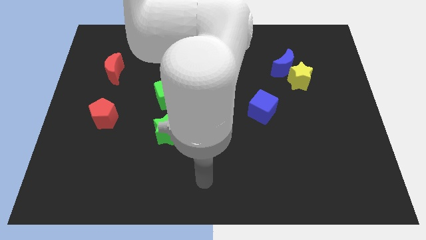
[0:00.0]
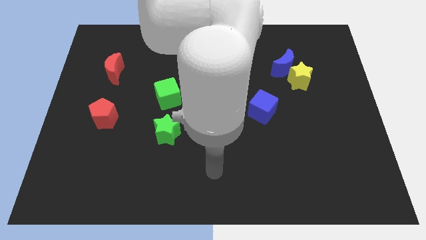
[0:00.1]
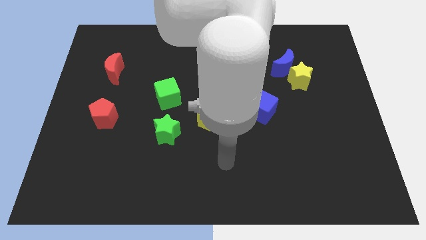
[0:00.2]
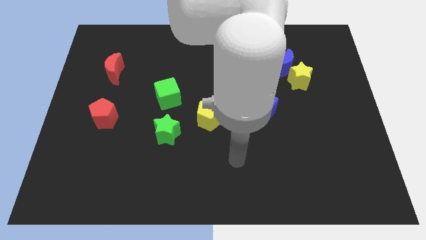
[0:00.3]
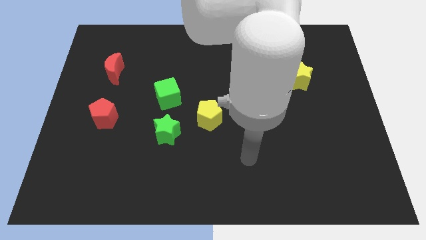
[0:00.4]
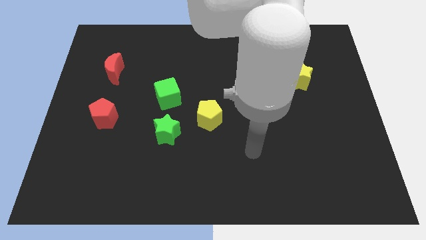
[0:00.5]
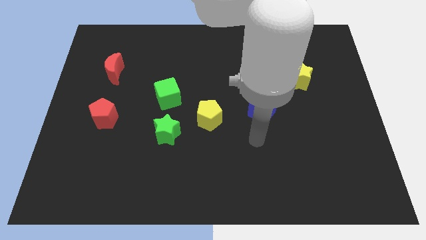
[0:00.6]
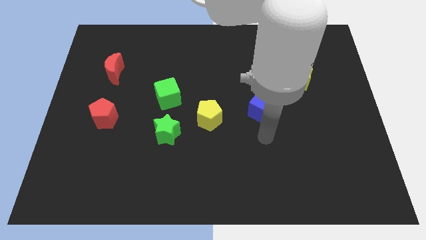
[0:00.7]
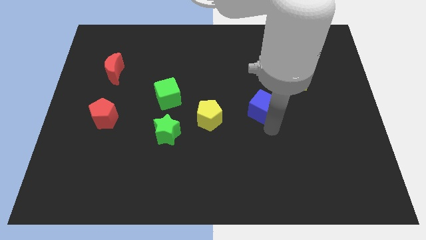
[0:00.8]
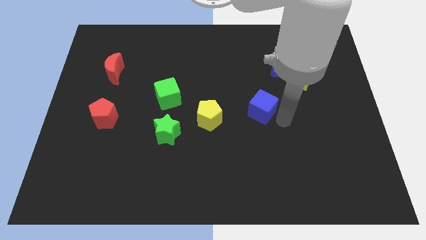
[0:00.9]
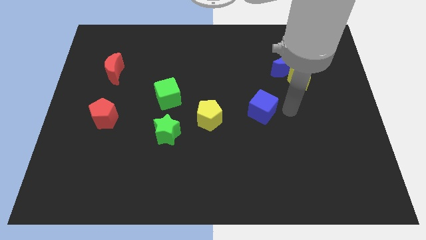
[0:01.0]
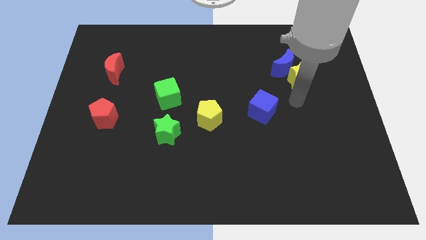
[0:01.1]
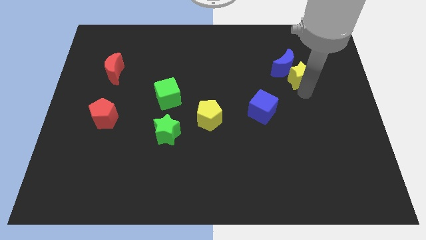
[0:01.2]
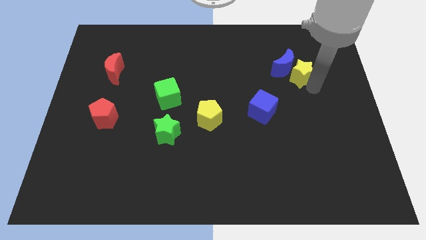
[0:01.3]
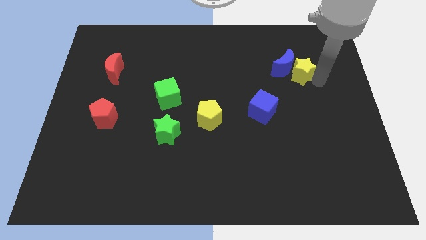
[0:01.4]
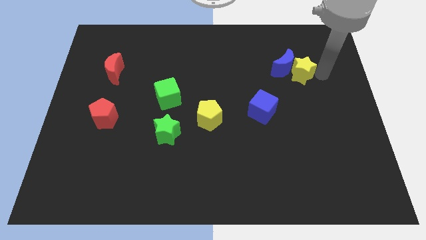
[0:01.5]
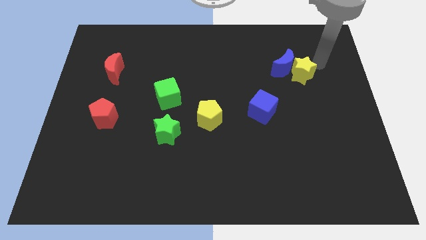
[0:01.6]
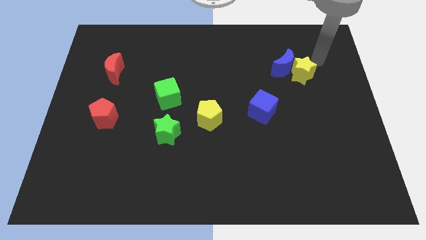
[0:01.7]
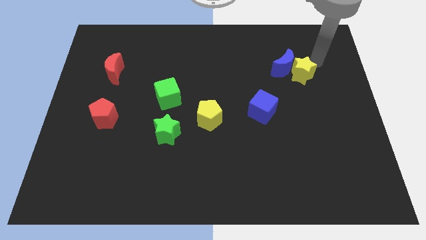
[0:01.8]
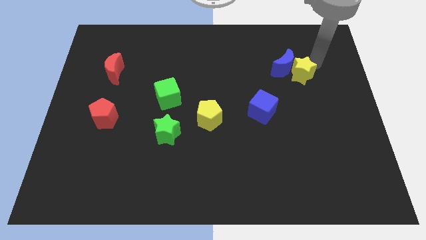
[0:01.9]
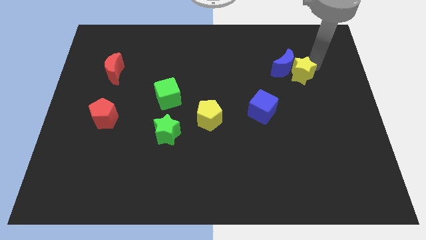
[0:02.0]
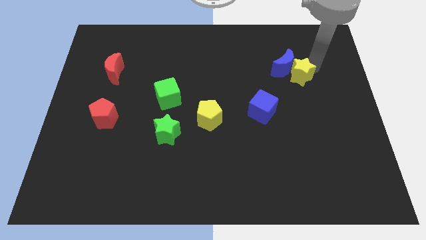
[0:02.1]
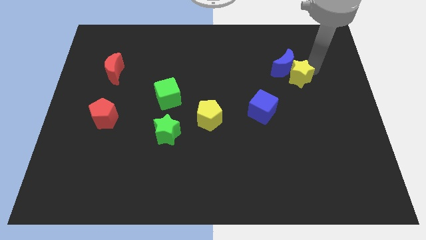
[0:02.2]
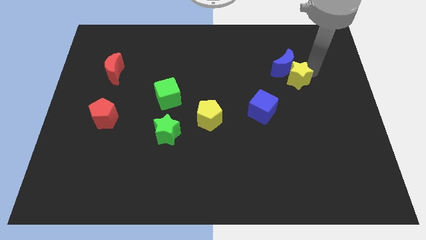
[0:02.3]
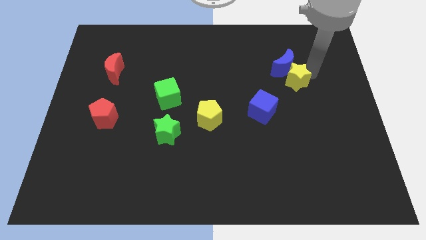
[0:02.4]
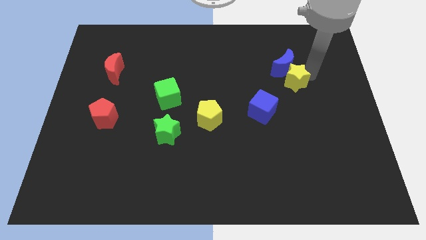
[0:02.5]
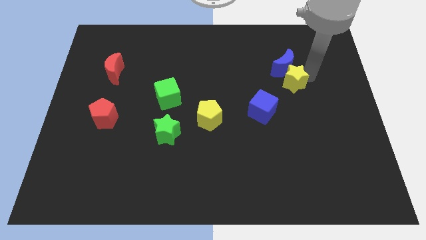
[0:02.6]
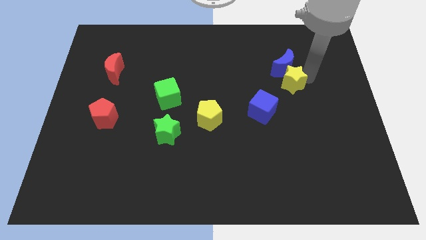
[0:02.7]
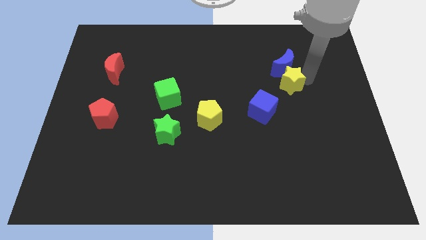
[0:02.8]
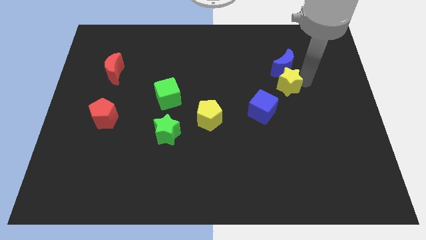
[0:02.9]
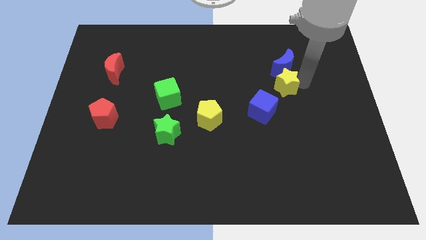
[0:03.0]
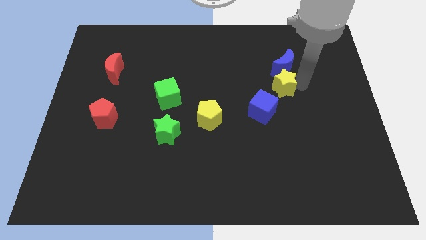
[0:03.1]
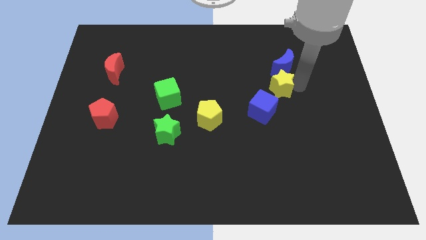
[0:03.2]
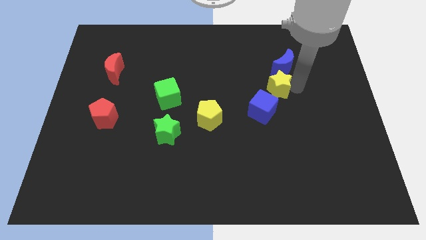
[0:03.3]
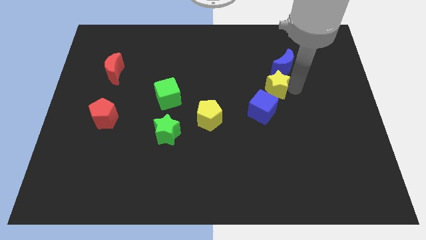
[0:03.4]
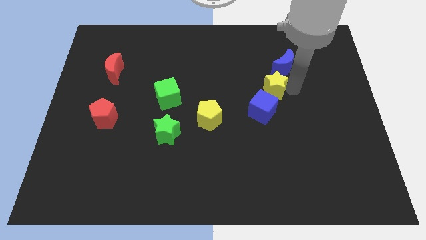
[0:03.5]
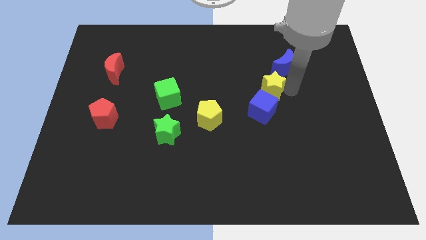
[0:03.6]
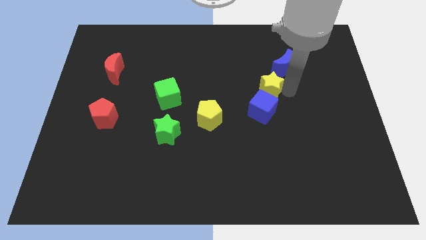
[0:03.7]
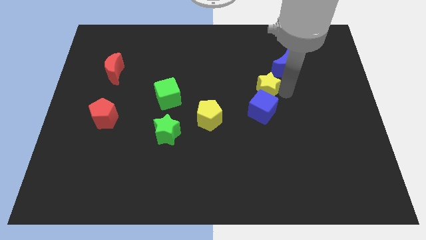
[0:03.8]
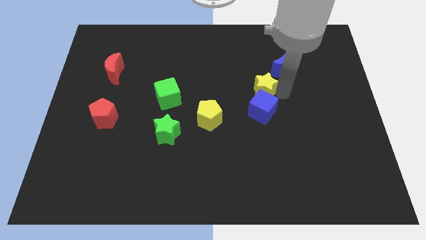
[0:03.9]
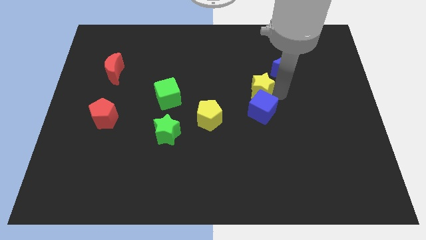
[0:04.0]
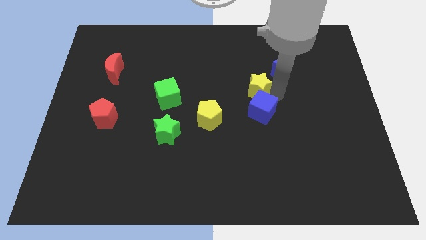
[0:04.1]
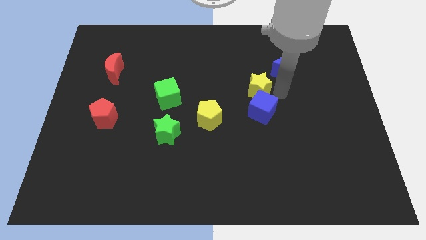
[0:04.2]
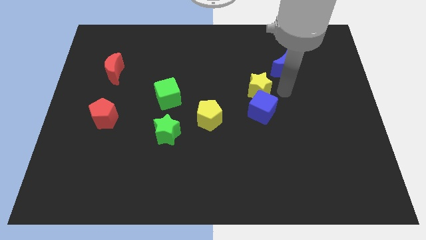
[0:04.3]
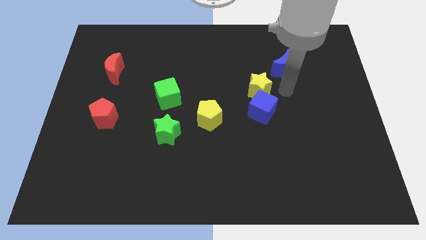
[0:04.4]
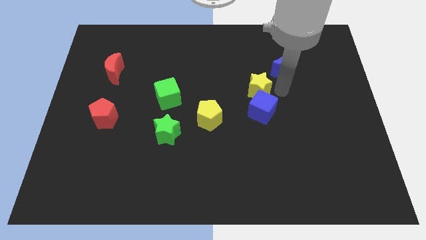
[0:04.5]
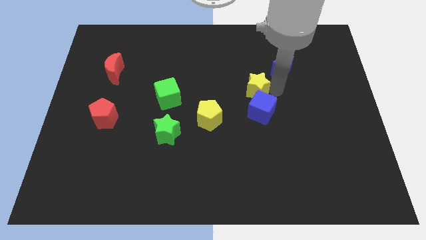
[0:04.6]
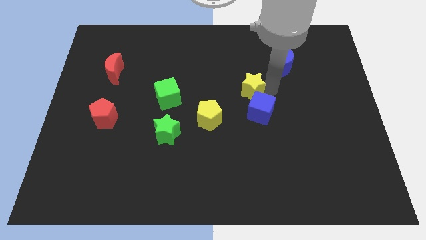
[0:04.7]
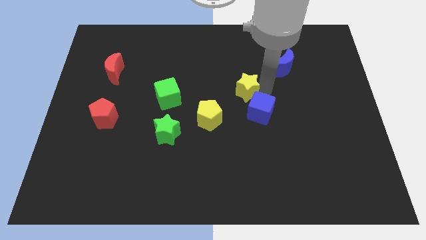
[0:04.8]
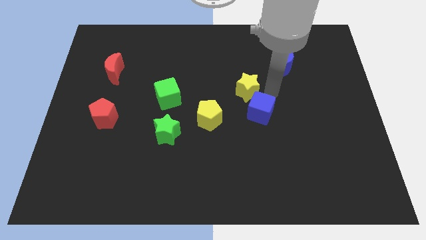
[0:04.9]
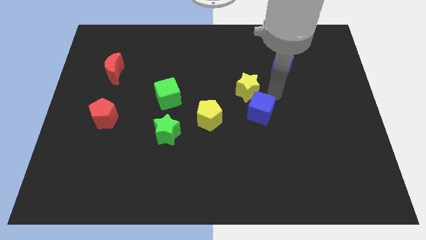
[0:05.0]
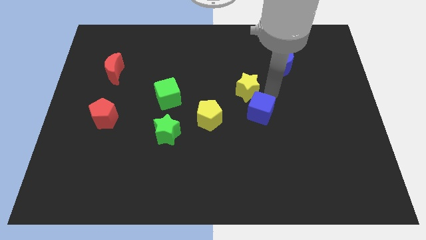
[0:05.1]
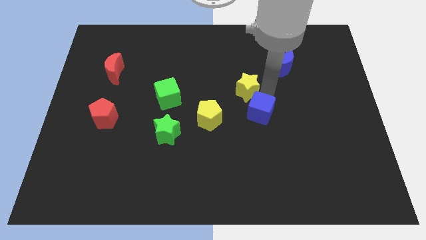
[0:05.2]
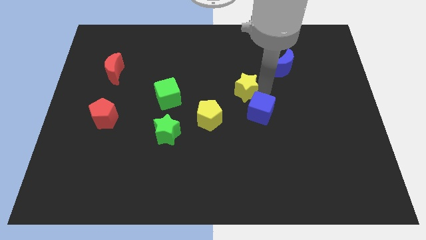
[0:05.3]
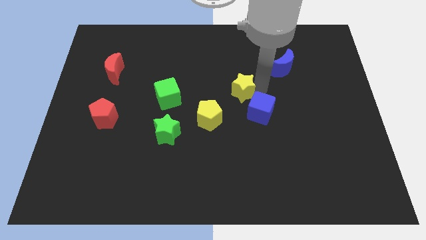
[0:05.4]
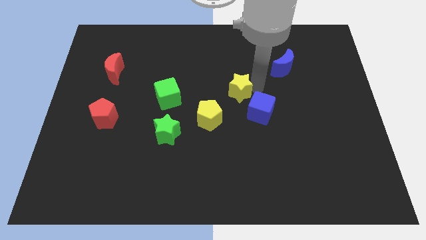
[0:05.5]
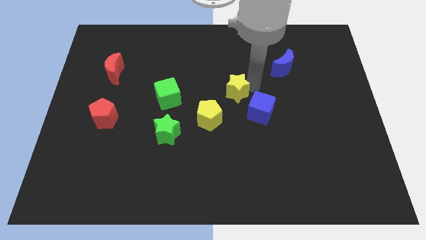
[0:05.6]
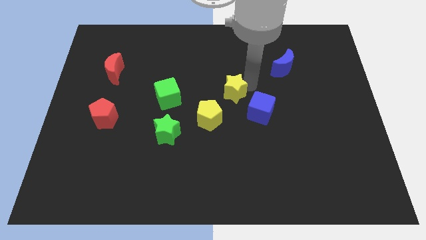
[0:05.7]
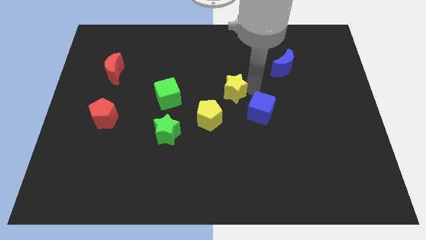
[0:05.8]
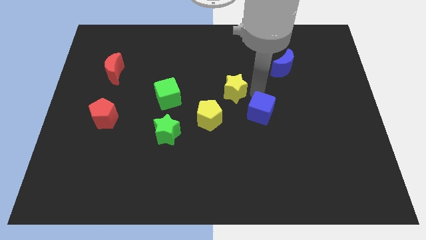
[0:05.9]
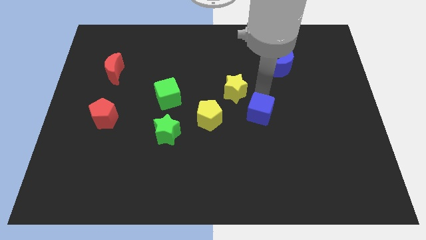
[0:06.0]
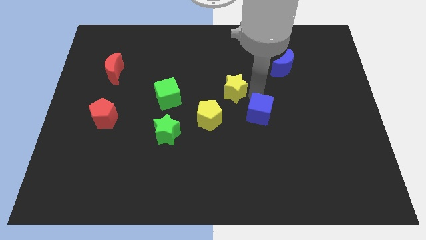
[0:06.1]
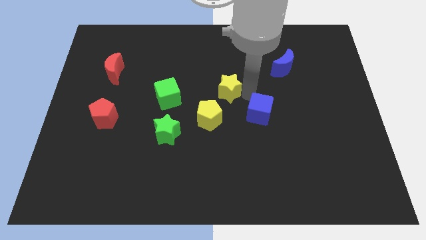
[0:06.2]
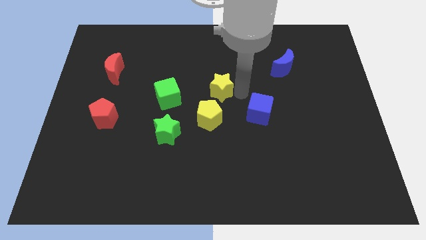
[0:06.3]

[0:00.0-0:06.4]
move the yellow star to the top side of the yellow pentagon

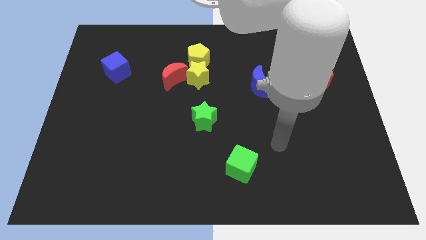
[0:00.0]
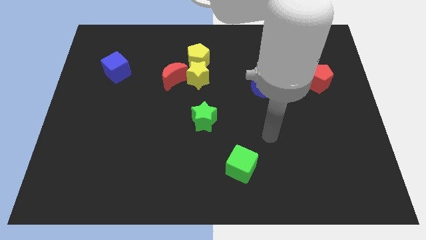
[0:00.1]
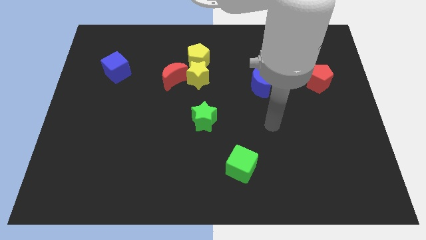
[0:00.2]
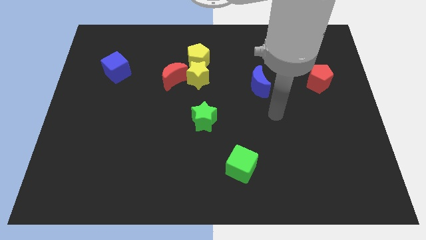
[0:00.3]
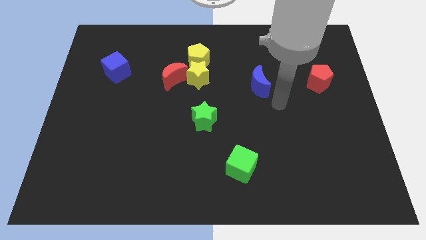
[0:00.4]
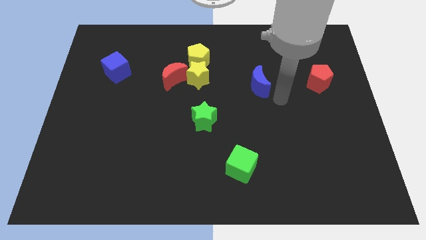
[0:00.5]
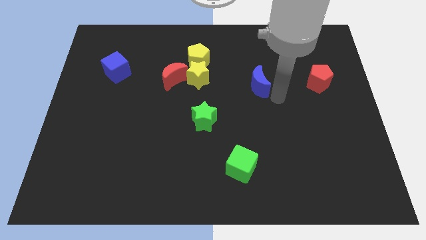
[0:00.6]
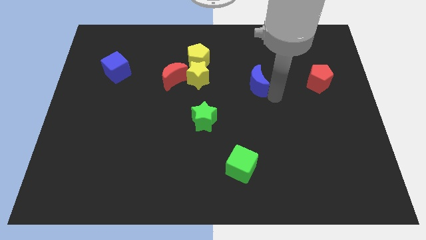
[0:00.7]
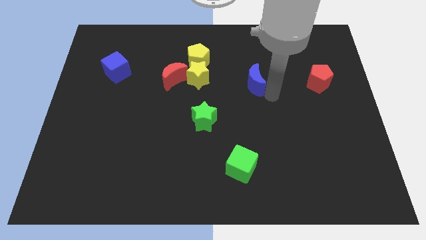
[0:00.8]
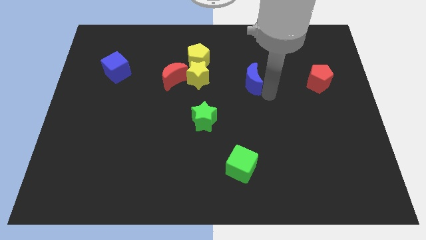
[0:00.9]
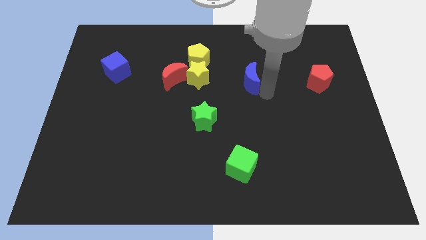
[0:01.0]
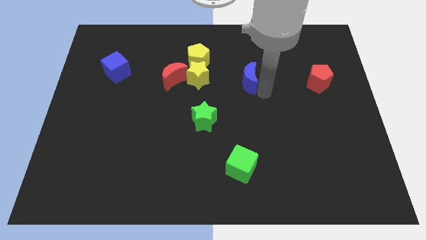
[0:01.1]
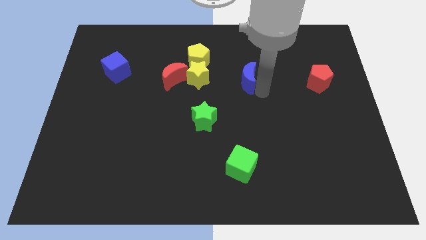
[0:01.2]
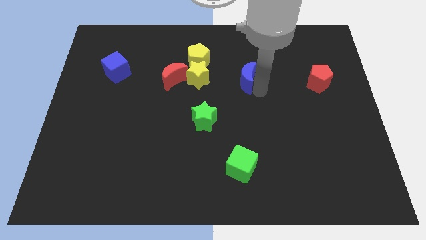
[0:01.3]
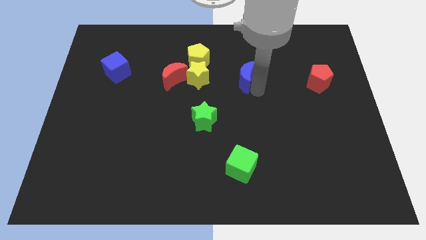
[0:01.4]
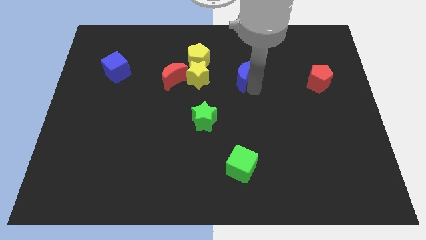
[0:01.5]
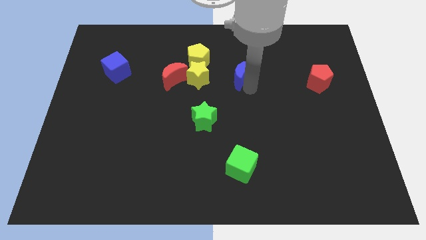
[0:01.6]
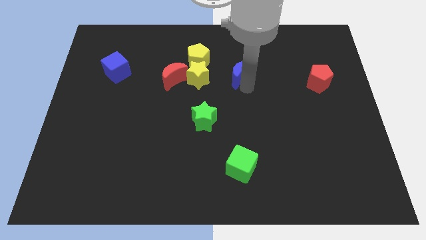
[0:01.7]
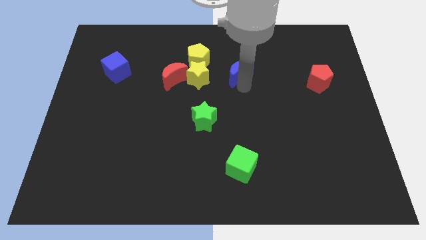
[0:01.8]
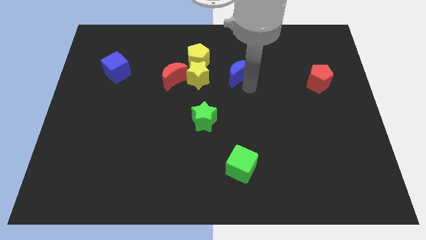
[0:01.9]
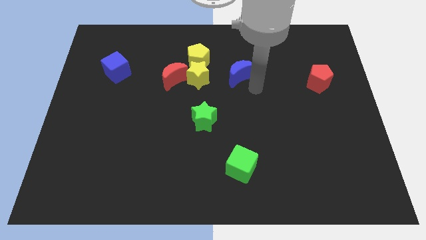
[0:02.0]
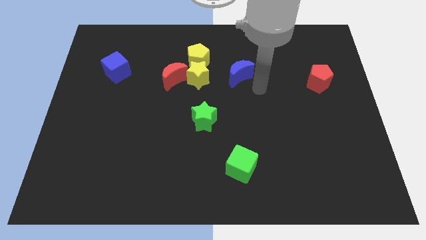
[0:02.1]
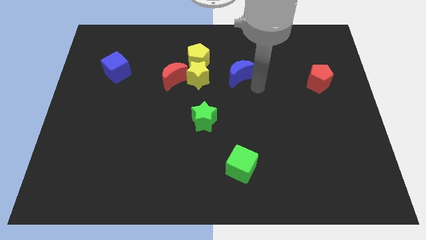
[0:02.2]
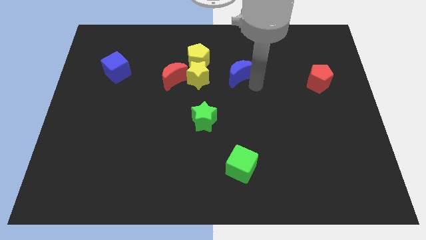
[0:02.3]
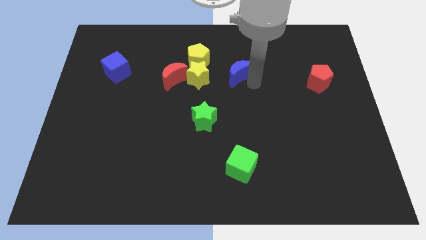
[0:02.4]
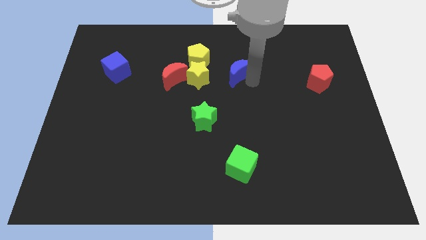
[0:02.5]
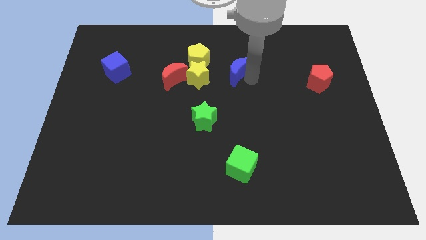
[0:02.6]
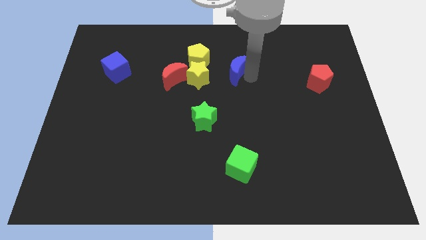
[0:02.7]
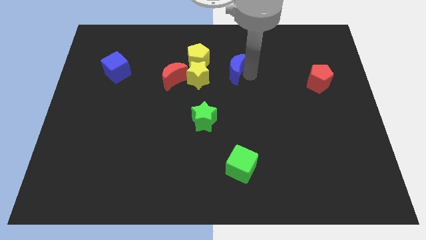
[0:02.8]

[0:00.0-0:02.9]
put the blue moon to the top right side of the yellow star
